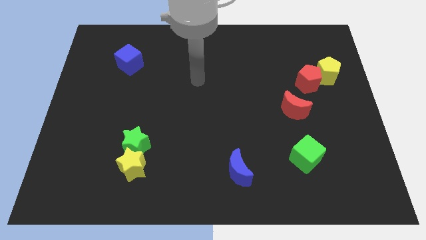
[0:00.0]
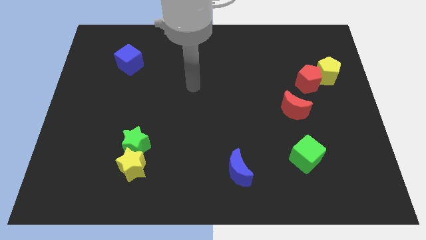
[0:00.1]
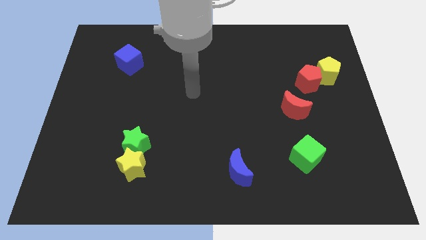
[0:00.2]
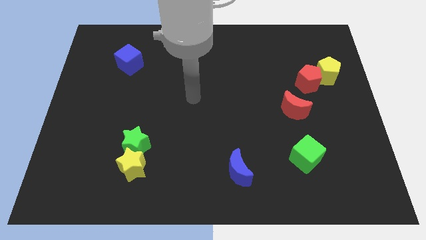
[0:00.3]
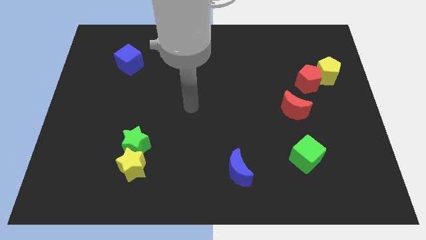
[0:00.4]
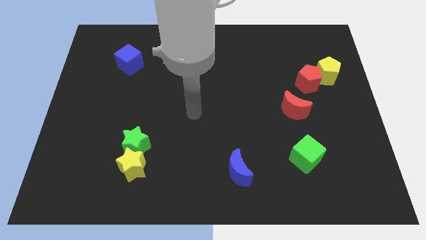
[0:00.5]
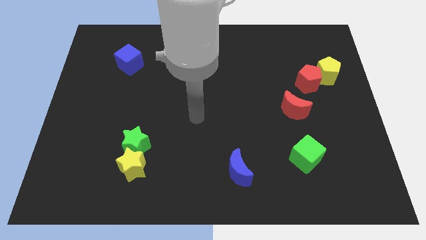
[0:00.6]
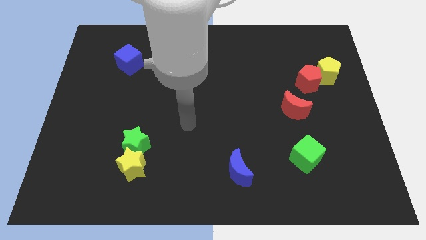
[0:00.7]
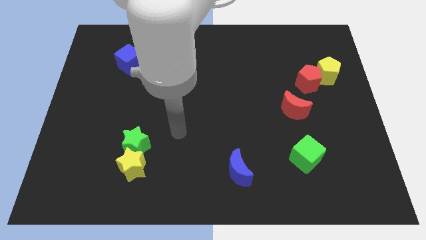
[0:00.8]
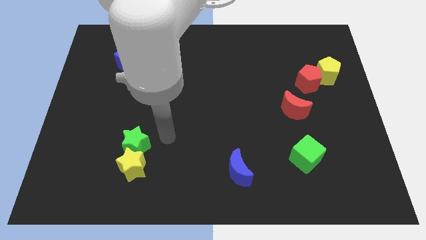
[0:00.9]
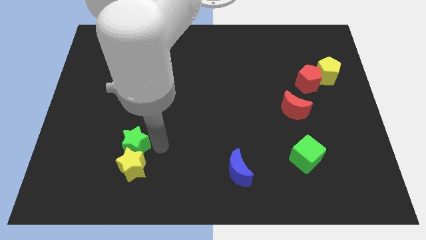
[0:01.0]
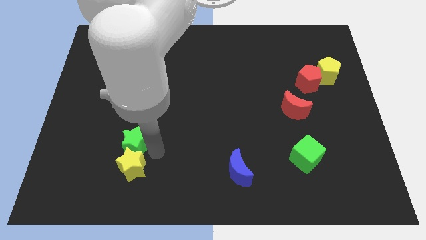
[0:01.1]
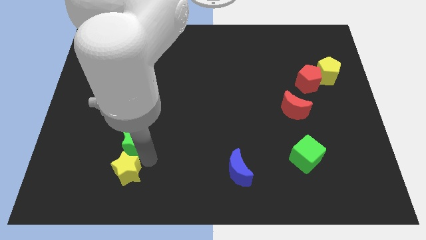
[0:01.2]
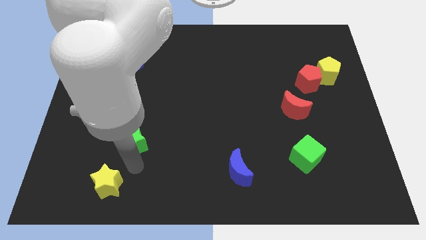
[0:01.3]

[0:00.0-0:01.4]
separate the green star from the yellow star

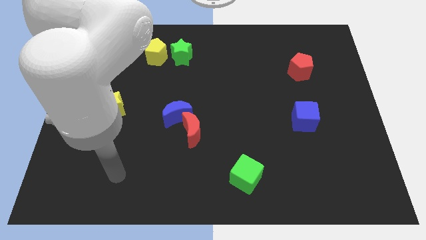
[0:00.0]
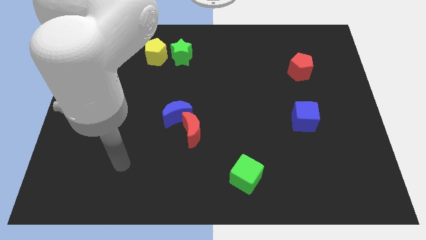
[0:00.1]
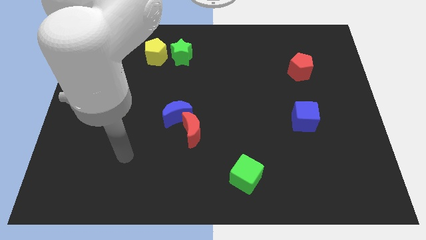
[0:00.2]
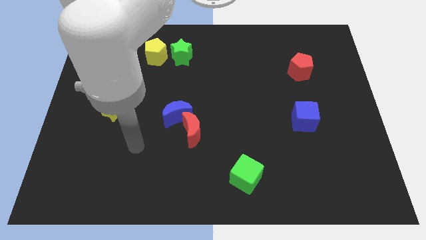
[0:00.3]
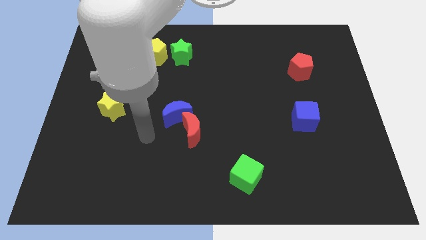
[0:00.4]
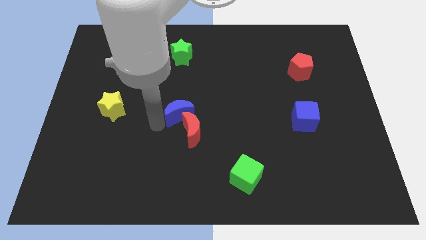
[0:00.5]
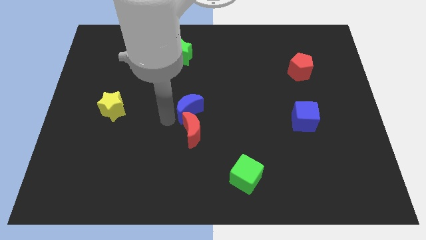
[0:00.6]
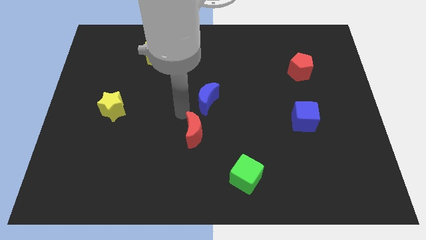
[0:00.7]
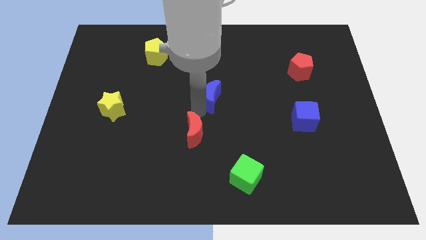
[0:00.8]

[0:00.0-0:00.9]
pull the red moon apart from the blue moon

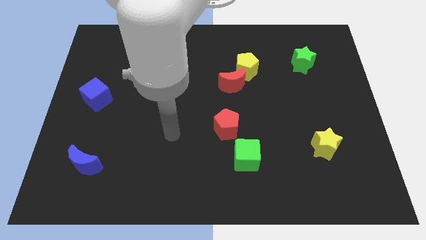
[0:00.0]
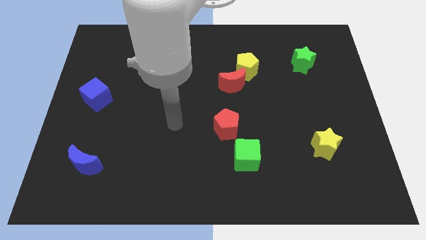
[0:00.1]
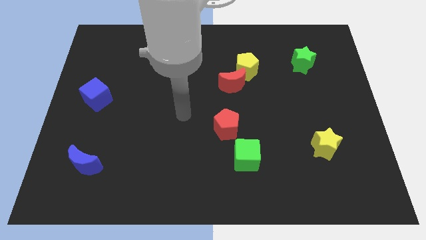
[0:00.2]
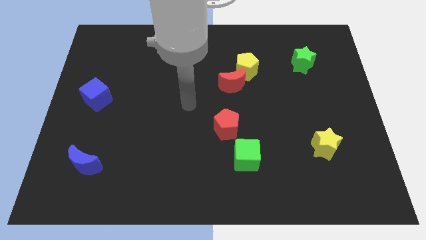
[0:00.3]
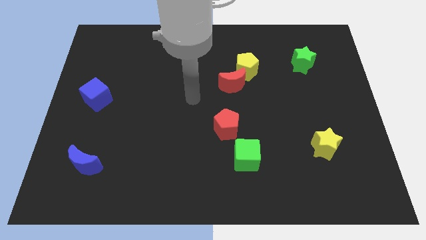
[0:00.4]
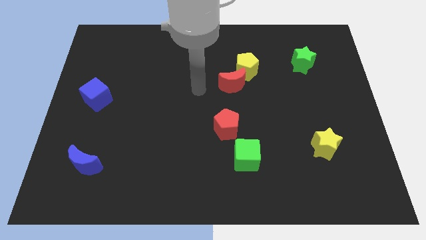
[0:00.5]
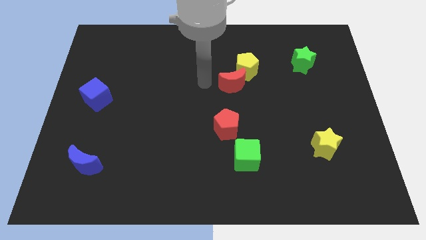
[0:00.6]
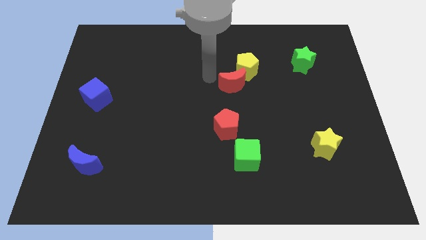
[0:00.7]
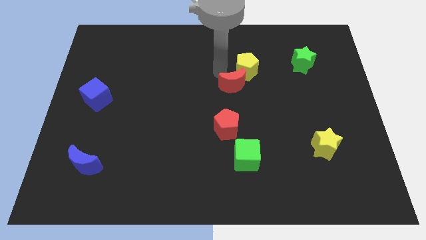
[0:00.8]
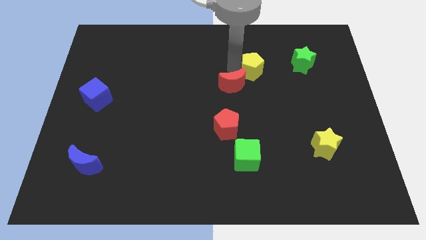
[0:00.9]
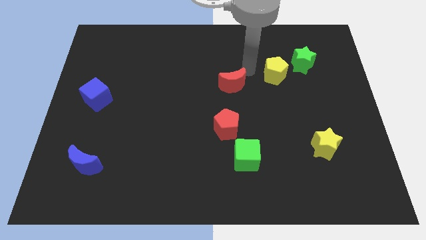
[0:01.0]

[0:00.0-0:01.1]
separate the red moon from the yellow pentagon

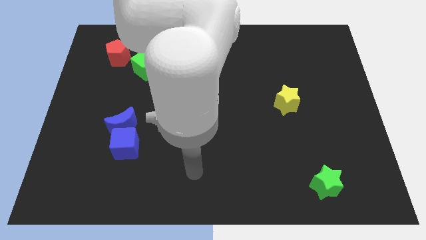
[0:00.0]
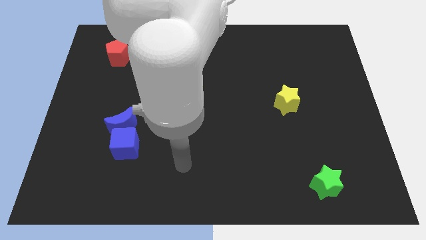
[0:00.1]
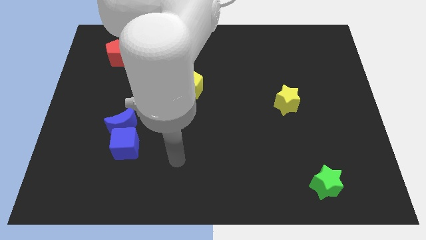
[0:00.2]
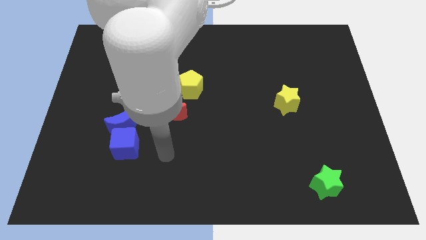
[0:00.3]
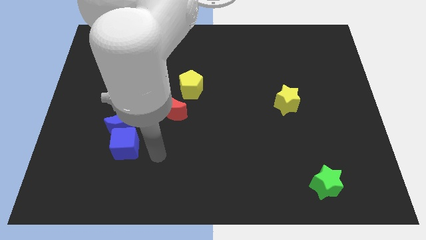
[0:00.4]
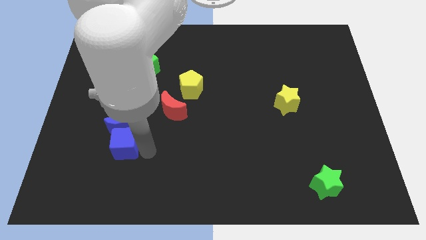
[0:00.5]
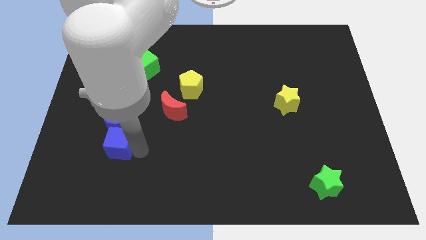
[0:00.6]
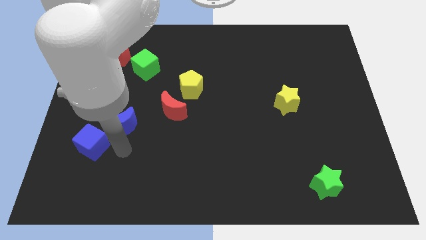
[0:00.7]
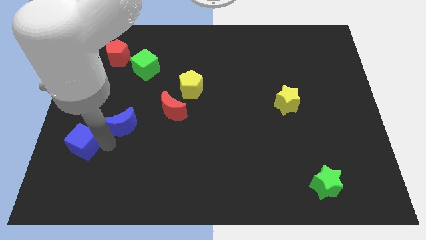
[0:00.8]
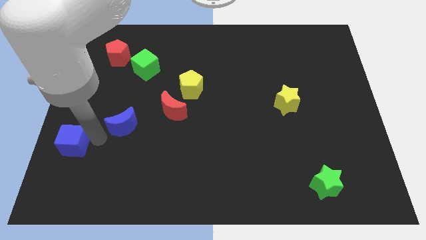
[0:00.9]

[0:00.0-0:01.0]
pull the blue moon apart from the blue cube

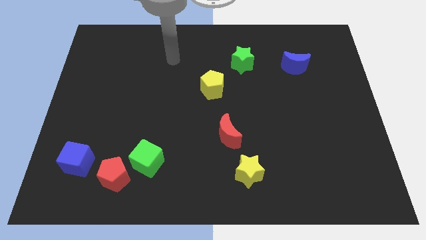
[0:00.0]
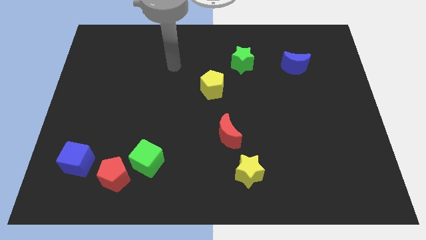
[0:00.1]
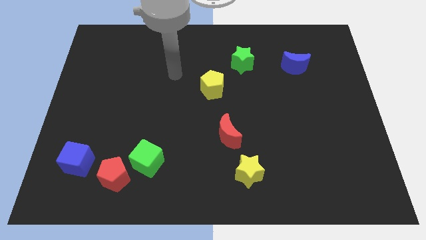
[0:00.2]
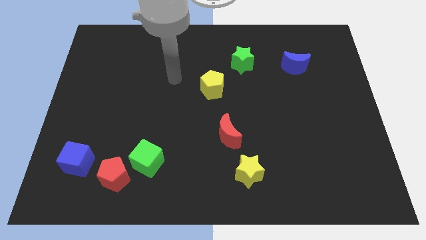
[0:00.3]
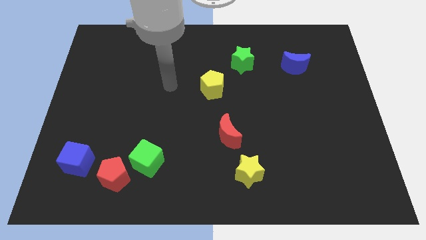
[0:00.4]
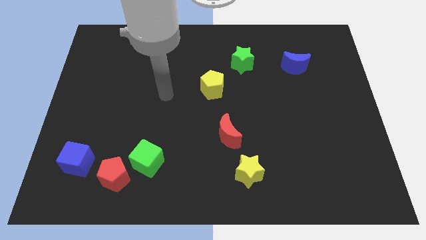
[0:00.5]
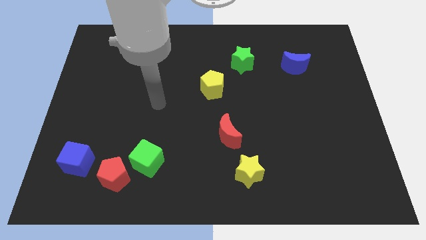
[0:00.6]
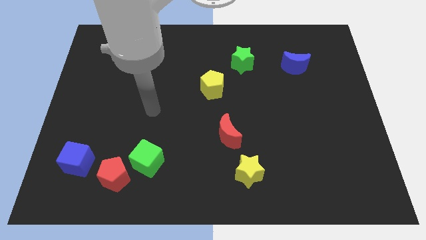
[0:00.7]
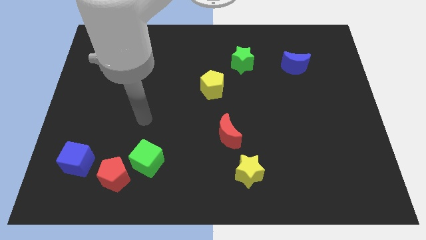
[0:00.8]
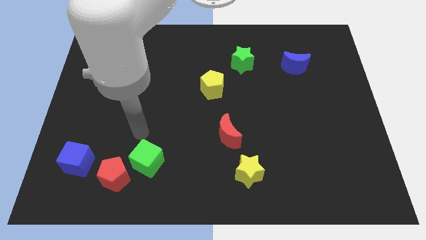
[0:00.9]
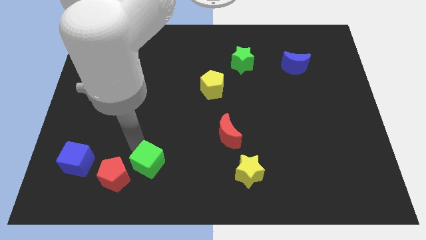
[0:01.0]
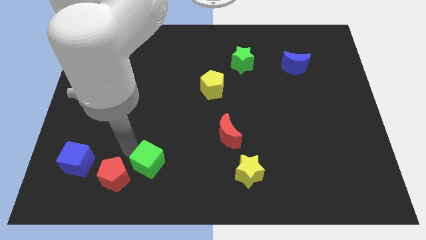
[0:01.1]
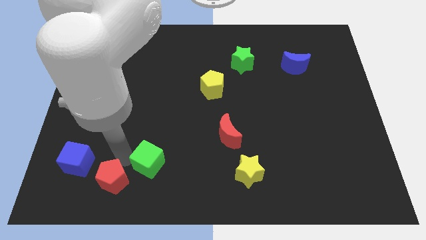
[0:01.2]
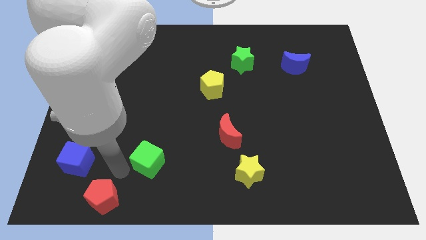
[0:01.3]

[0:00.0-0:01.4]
move the green cube away from the red pentagon

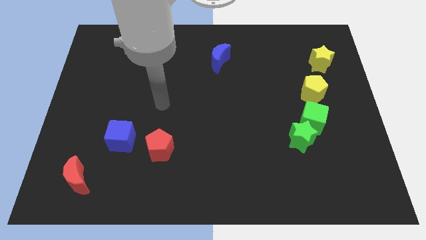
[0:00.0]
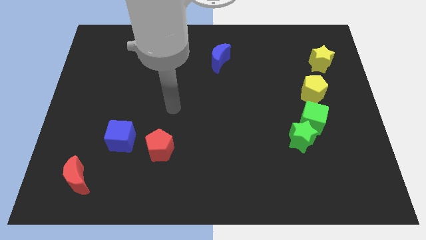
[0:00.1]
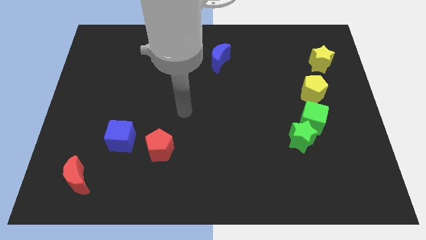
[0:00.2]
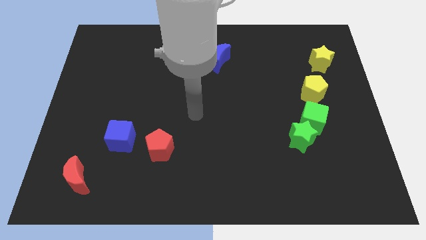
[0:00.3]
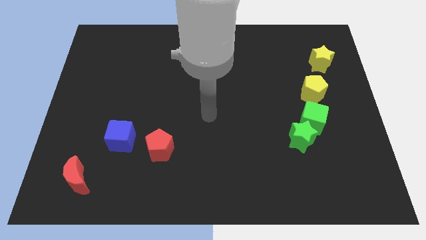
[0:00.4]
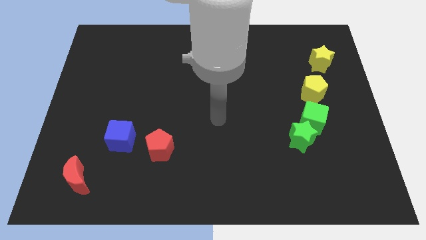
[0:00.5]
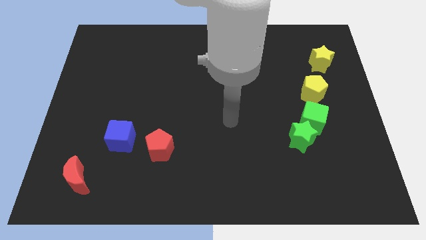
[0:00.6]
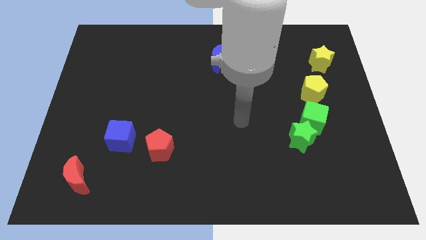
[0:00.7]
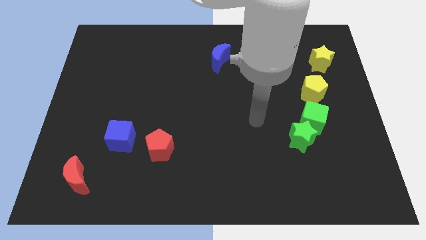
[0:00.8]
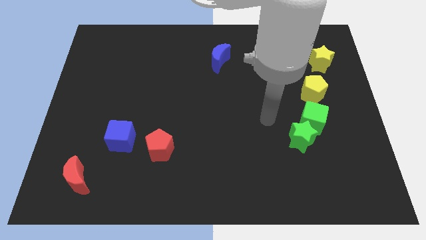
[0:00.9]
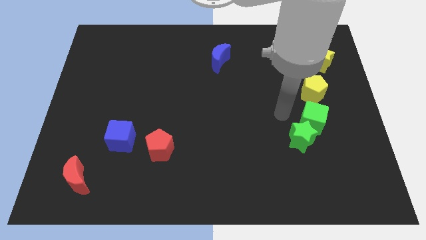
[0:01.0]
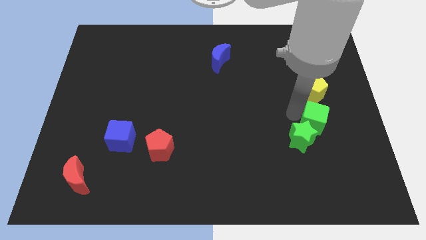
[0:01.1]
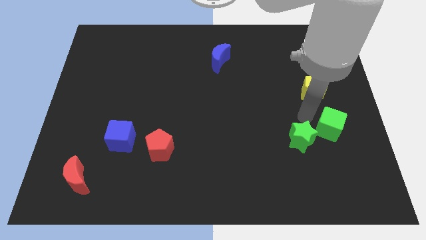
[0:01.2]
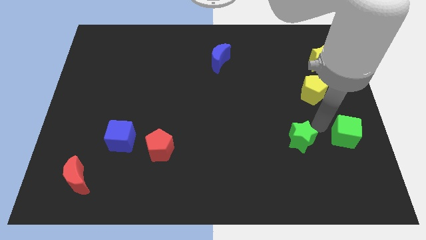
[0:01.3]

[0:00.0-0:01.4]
move the green star away from the green cube

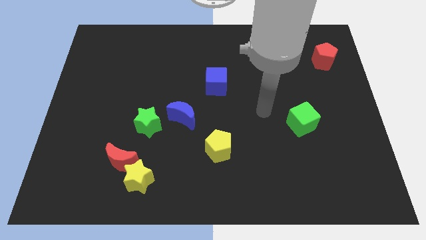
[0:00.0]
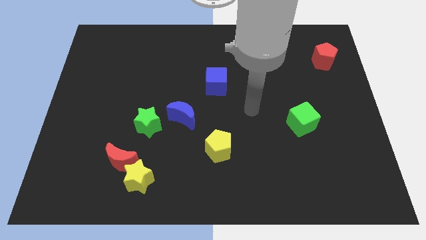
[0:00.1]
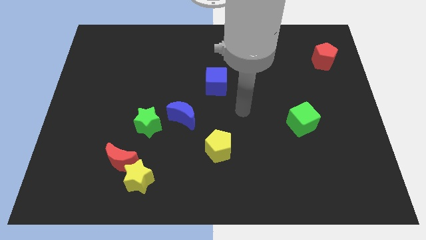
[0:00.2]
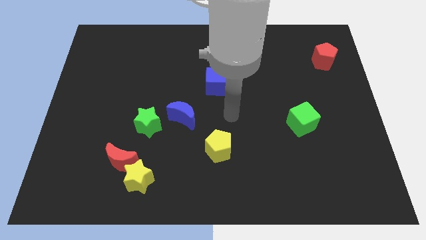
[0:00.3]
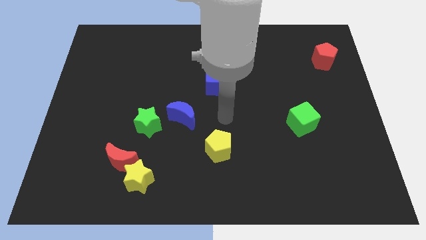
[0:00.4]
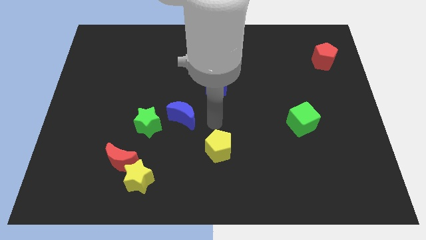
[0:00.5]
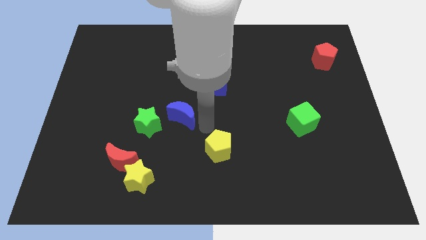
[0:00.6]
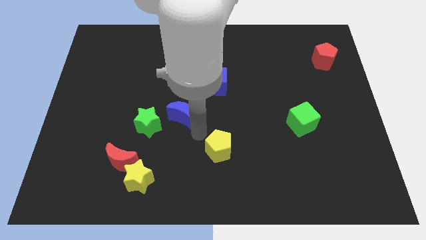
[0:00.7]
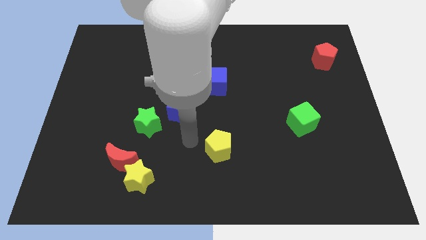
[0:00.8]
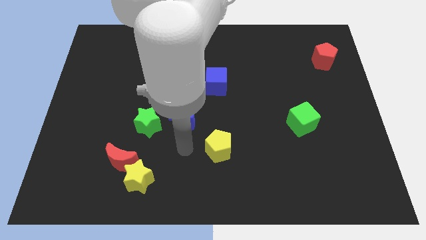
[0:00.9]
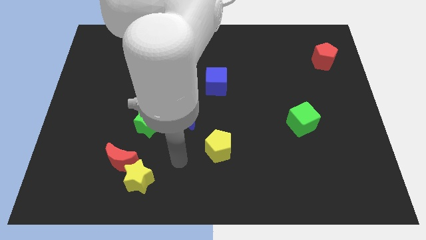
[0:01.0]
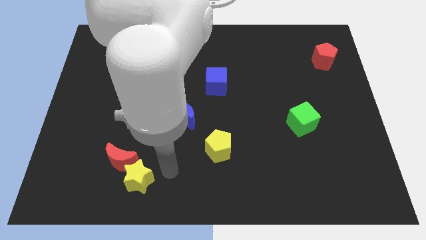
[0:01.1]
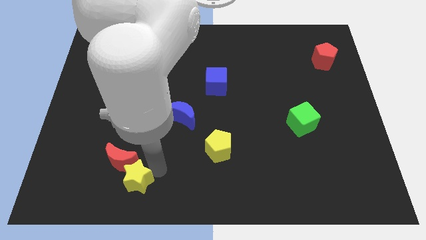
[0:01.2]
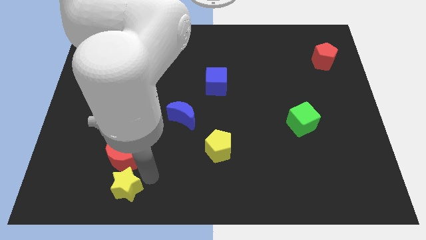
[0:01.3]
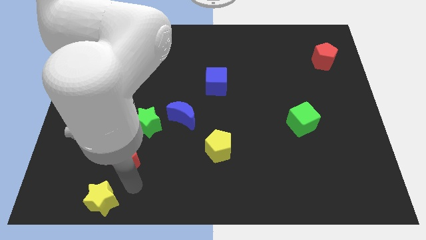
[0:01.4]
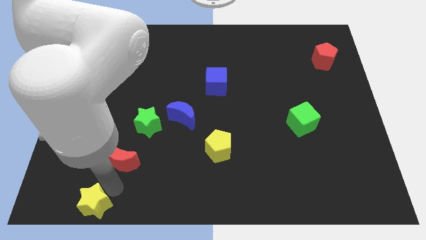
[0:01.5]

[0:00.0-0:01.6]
separate the red moon from the yellow star

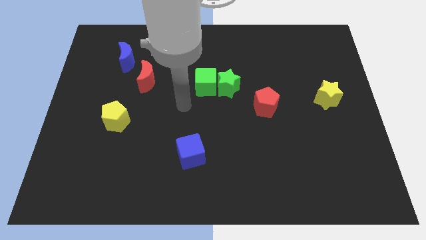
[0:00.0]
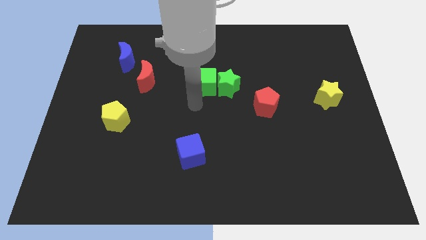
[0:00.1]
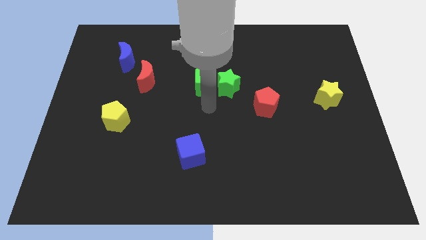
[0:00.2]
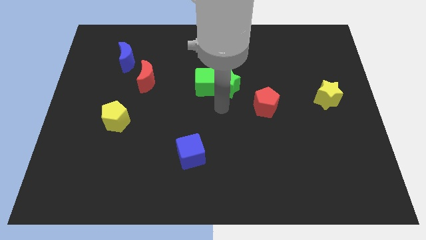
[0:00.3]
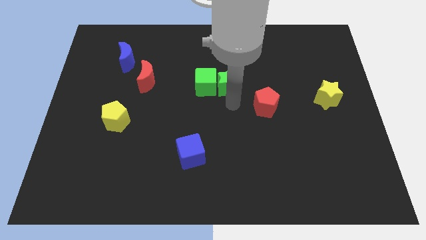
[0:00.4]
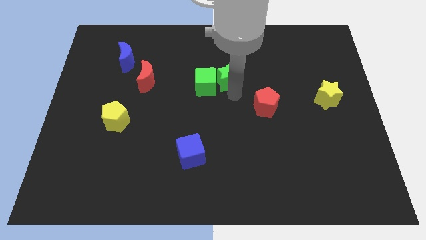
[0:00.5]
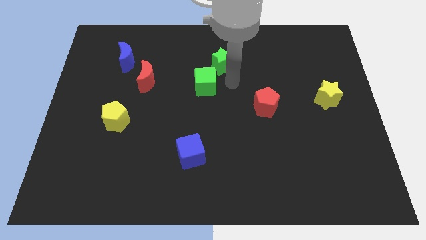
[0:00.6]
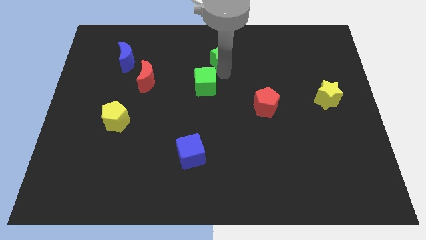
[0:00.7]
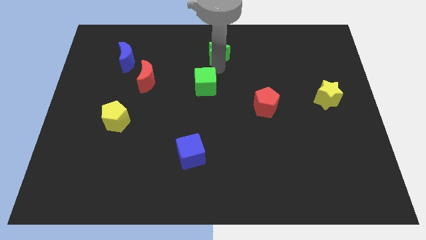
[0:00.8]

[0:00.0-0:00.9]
pull the green cube apart from the green star
